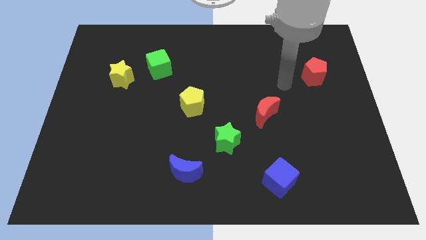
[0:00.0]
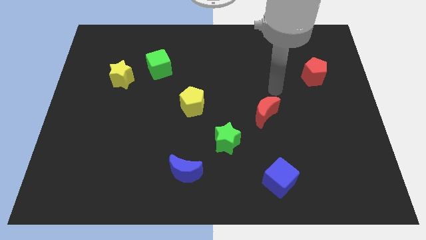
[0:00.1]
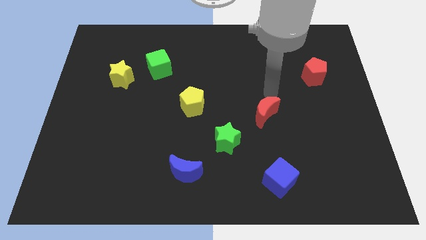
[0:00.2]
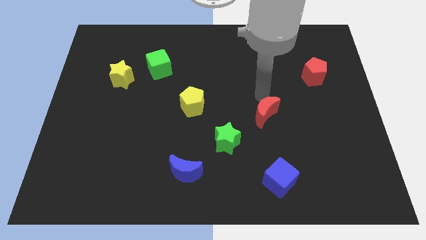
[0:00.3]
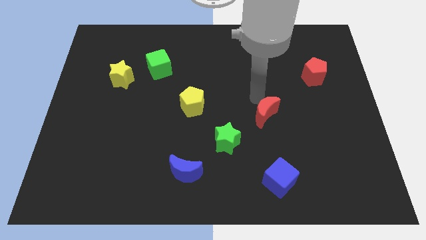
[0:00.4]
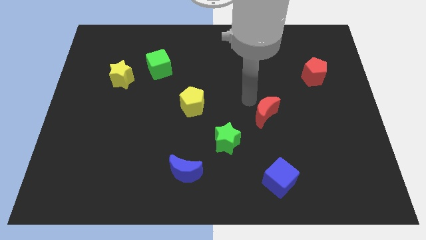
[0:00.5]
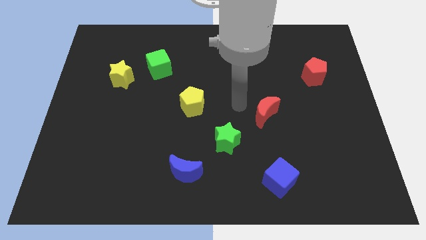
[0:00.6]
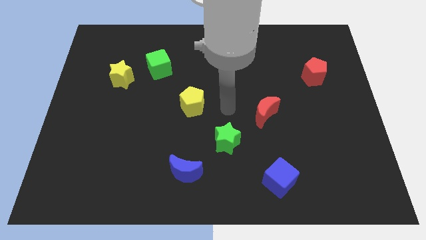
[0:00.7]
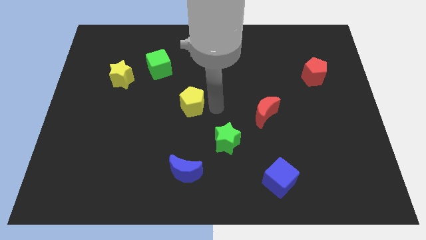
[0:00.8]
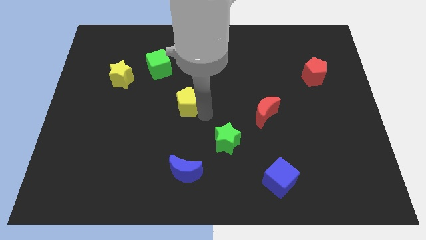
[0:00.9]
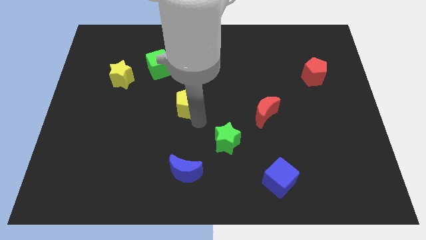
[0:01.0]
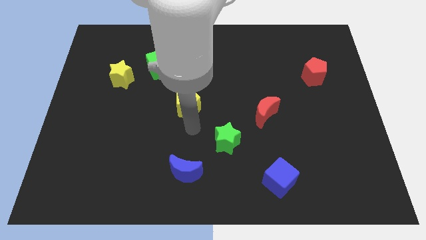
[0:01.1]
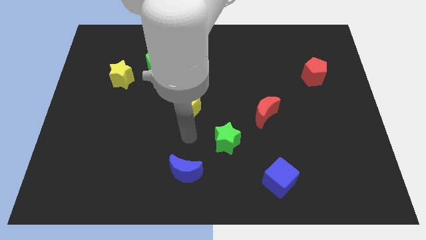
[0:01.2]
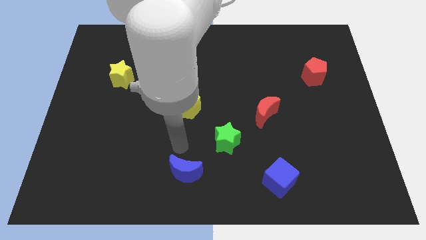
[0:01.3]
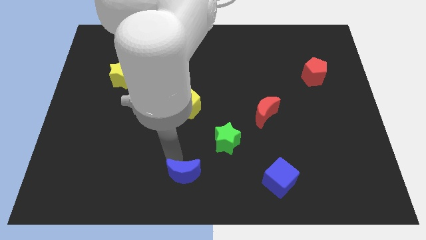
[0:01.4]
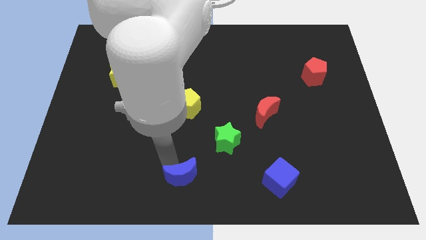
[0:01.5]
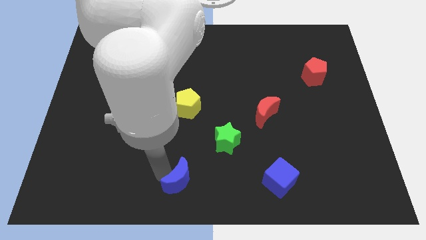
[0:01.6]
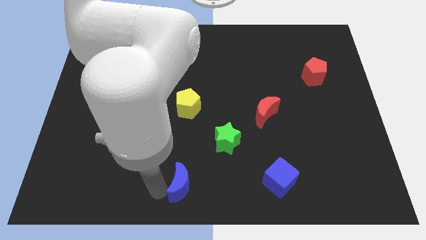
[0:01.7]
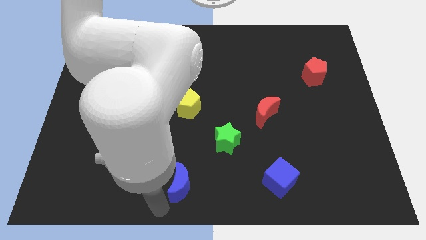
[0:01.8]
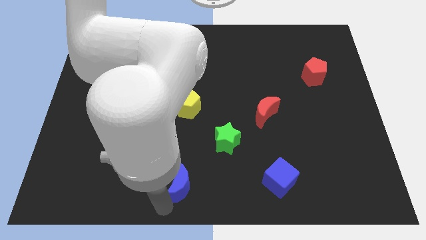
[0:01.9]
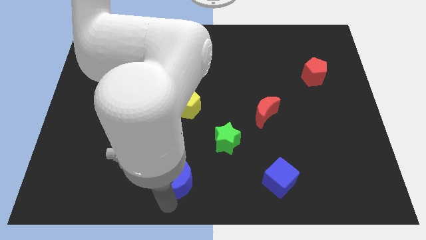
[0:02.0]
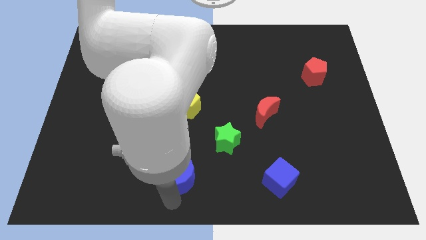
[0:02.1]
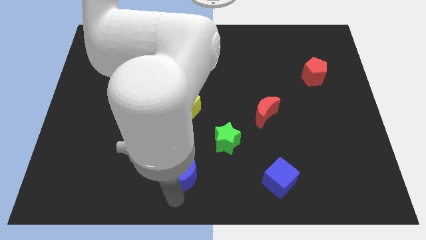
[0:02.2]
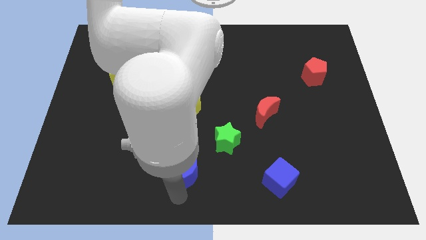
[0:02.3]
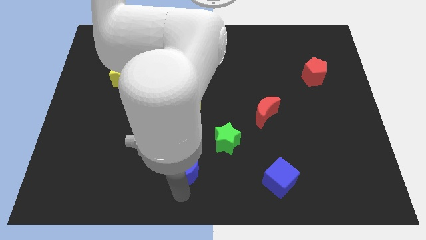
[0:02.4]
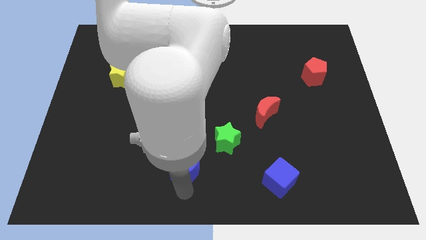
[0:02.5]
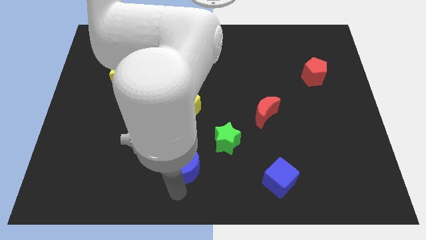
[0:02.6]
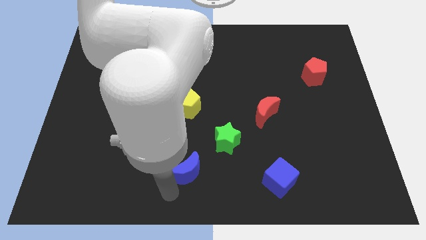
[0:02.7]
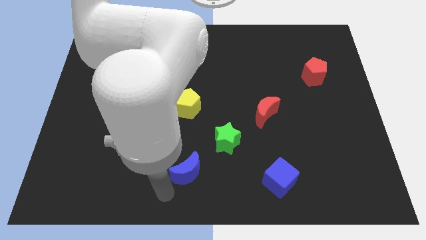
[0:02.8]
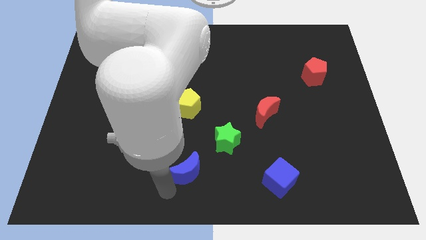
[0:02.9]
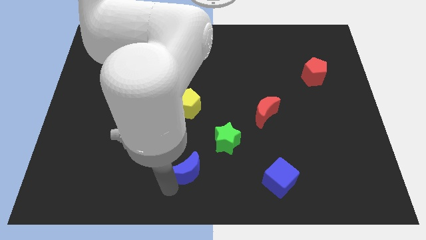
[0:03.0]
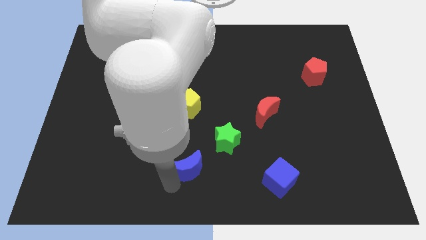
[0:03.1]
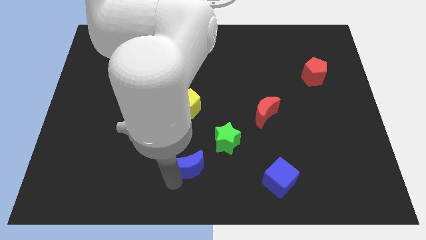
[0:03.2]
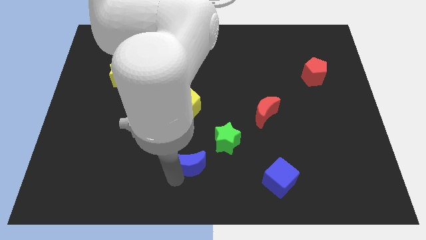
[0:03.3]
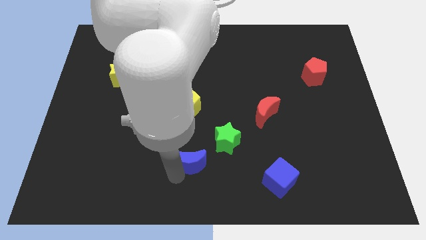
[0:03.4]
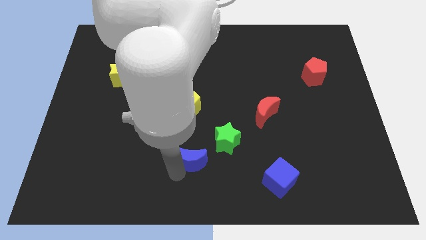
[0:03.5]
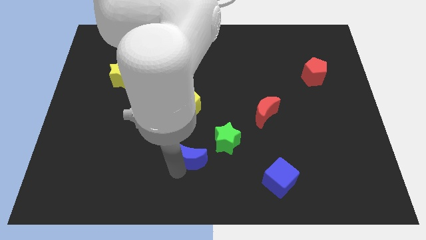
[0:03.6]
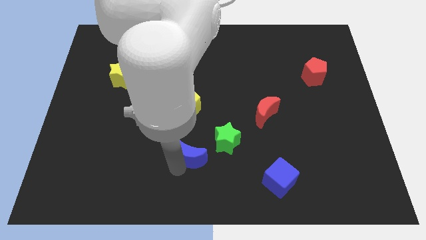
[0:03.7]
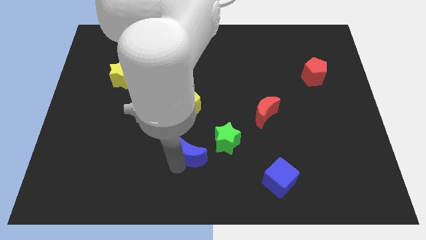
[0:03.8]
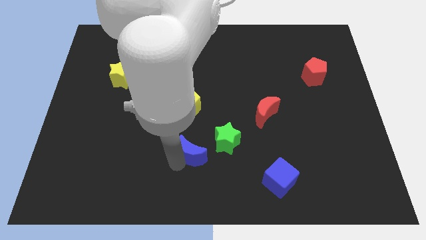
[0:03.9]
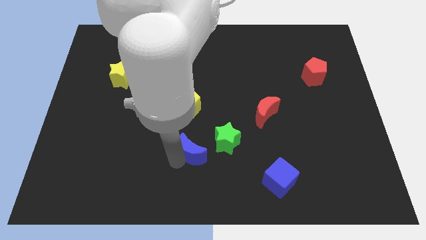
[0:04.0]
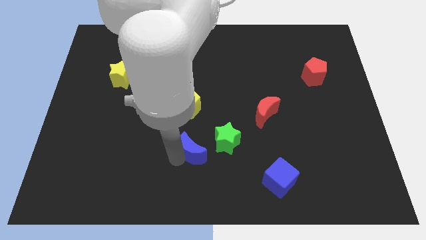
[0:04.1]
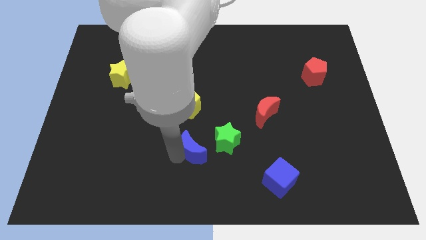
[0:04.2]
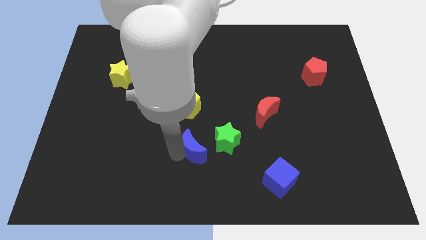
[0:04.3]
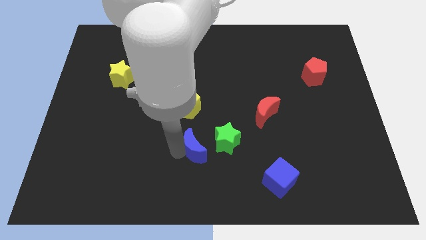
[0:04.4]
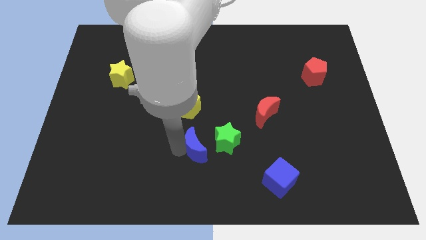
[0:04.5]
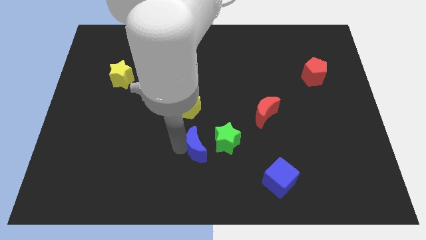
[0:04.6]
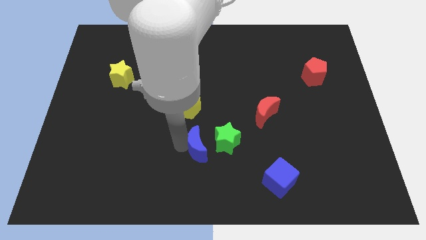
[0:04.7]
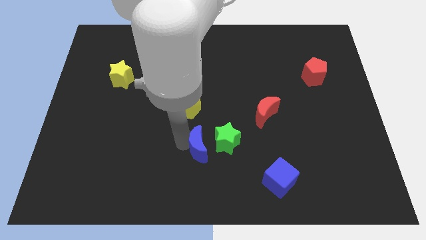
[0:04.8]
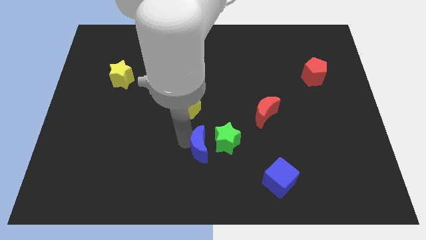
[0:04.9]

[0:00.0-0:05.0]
slide the blue moon close to the green star

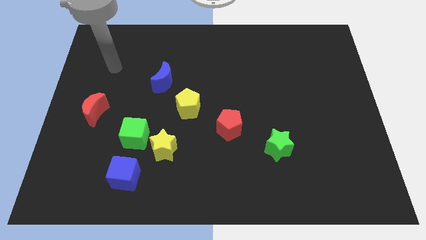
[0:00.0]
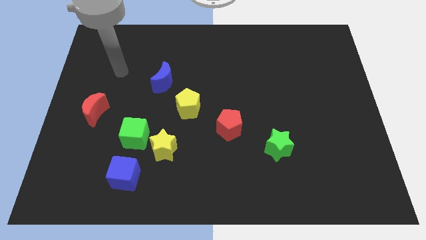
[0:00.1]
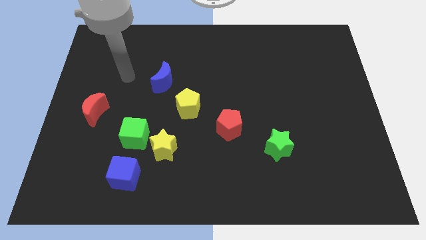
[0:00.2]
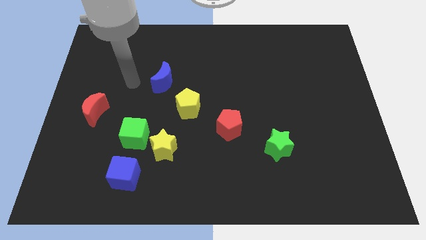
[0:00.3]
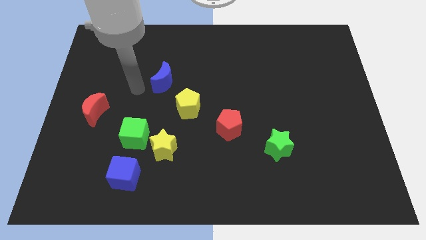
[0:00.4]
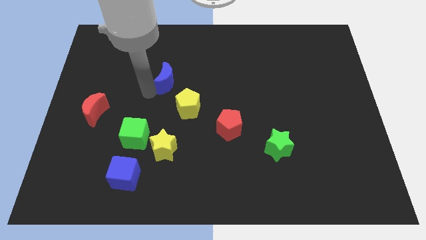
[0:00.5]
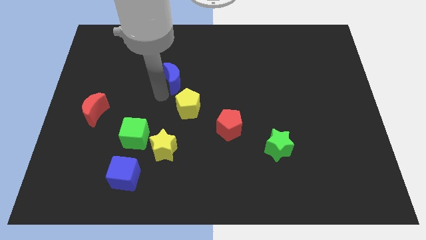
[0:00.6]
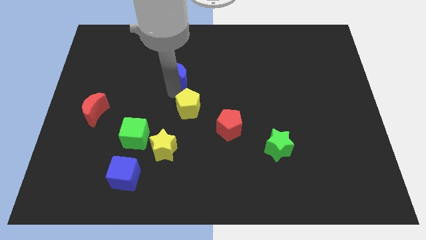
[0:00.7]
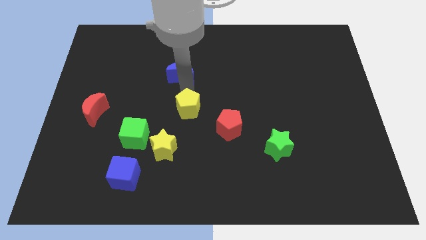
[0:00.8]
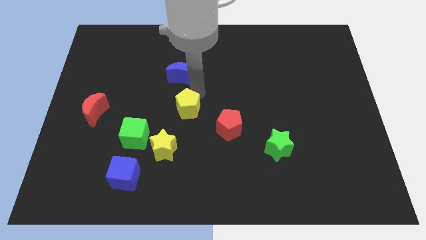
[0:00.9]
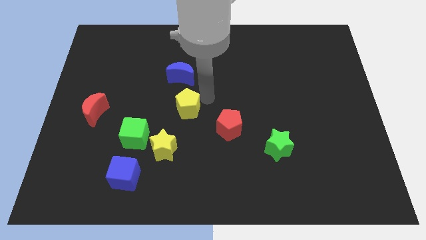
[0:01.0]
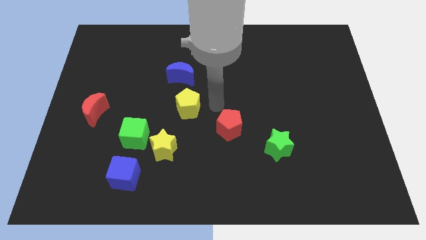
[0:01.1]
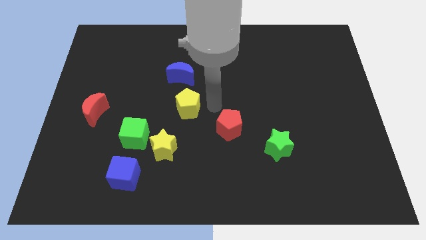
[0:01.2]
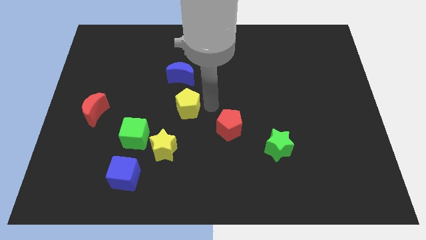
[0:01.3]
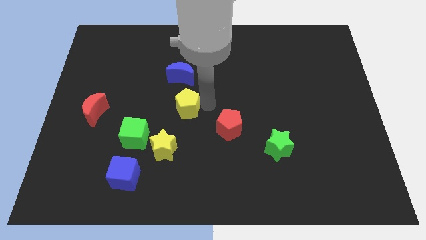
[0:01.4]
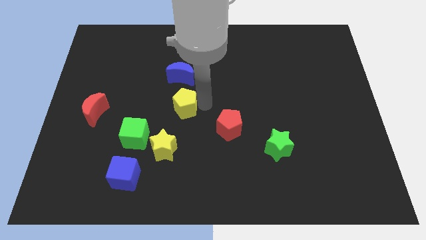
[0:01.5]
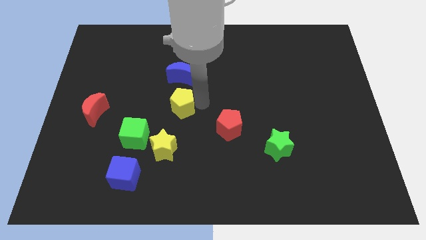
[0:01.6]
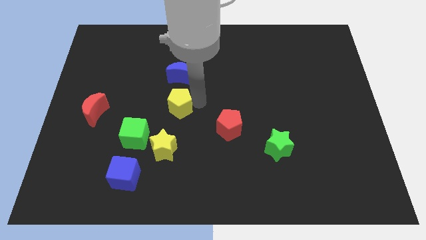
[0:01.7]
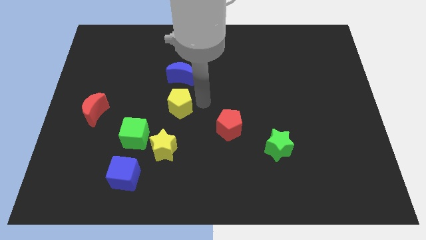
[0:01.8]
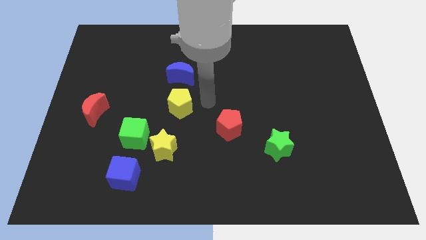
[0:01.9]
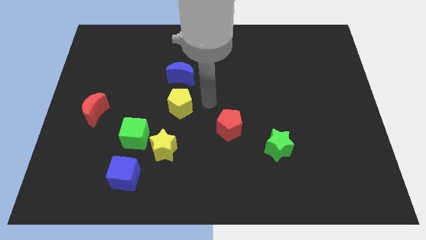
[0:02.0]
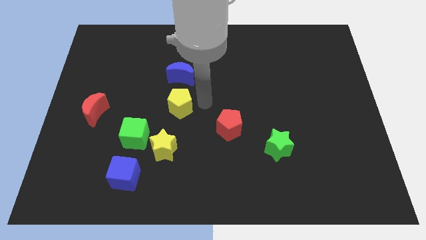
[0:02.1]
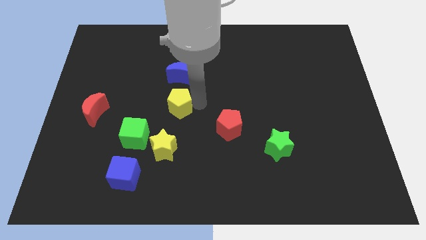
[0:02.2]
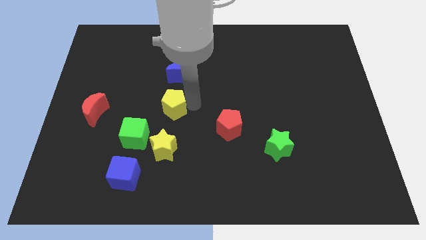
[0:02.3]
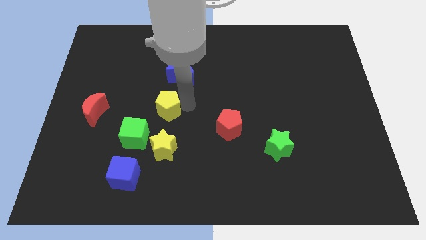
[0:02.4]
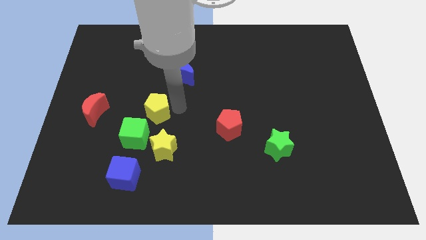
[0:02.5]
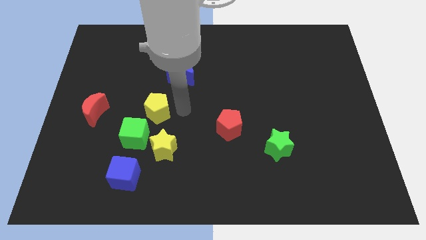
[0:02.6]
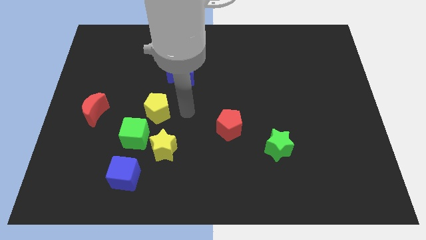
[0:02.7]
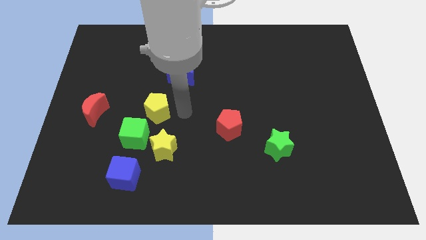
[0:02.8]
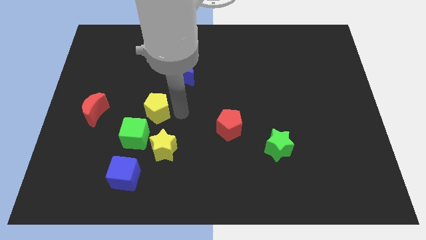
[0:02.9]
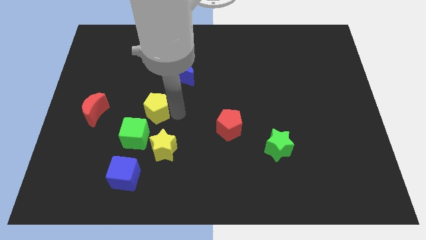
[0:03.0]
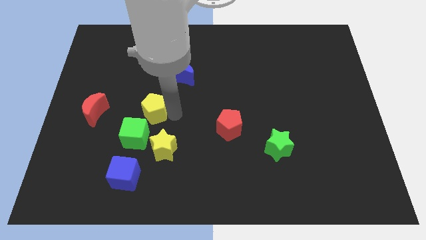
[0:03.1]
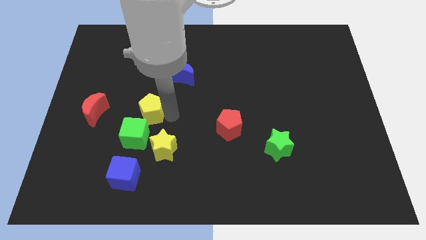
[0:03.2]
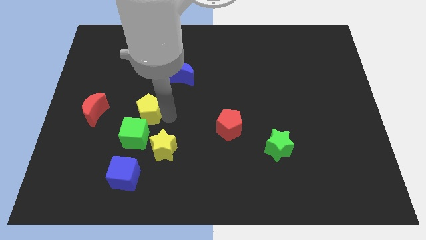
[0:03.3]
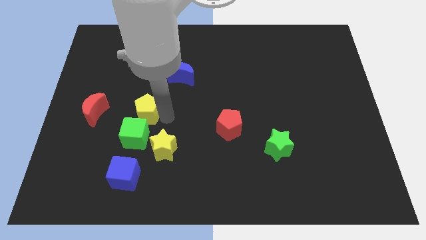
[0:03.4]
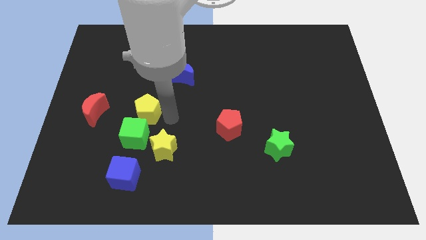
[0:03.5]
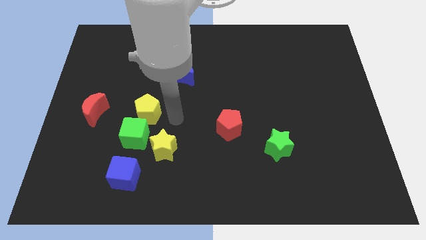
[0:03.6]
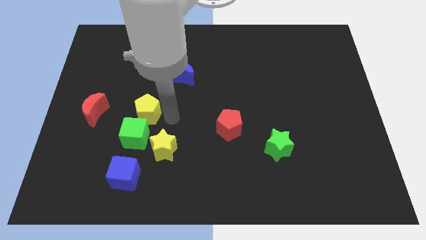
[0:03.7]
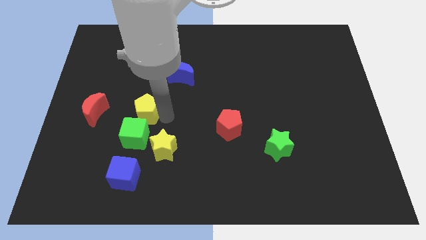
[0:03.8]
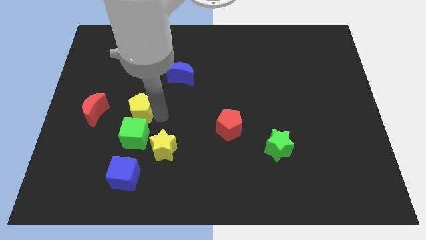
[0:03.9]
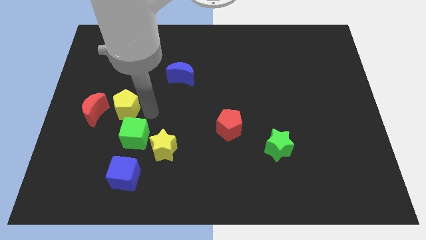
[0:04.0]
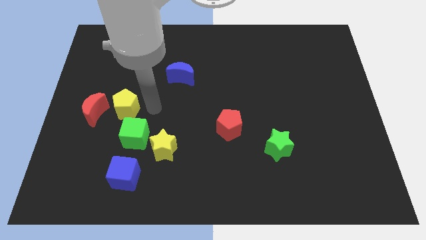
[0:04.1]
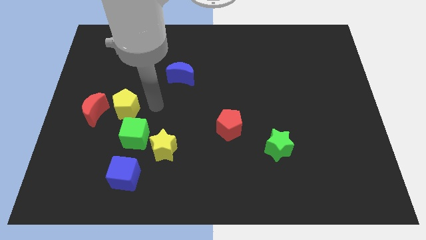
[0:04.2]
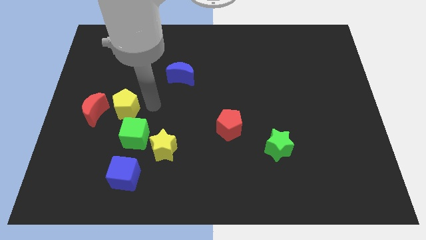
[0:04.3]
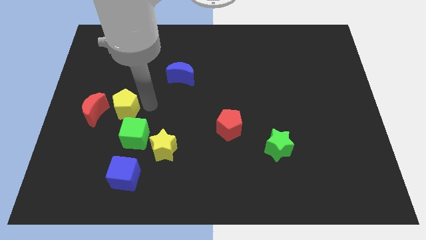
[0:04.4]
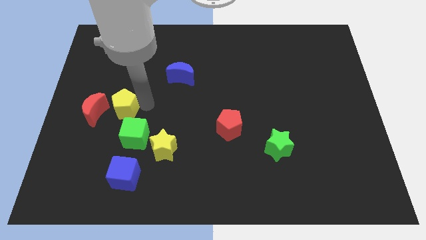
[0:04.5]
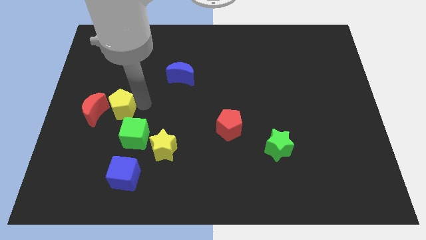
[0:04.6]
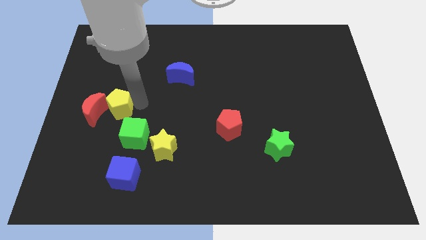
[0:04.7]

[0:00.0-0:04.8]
slide the yellow pentagon close to the red moon
